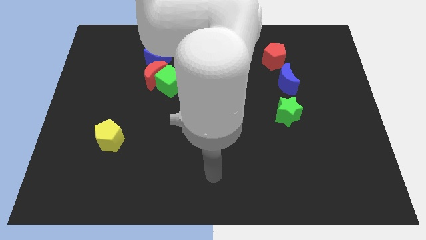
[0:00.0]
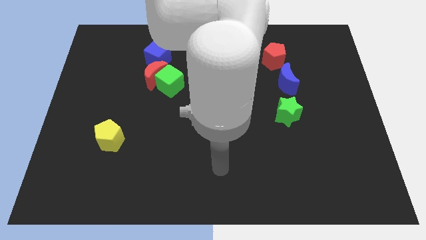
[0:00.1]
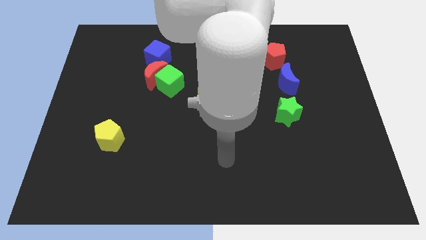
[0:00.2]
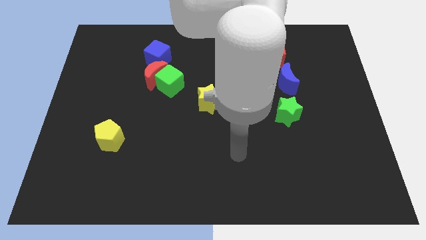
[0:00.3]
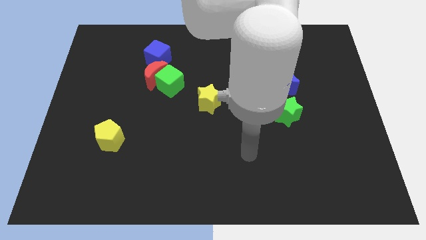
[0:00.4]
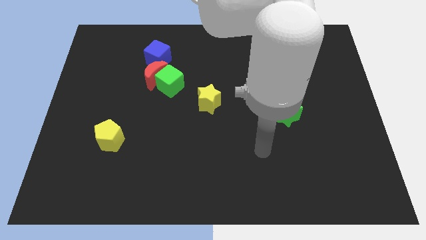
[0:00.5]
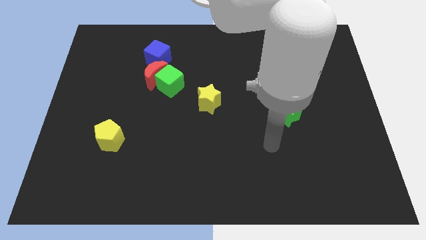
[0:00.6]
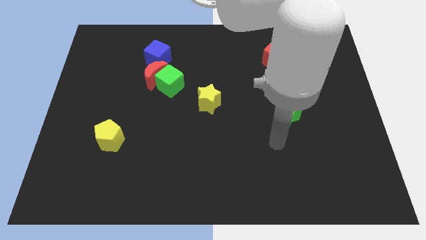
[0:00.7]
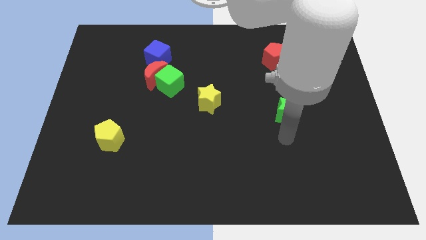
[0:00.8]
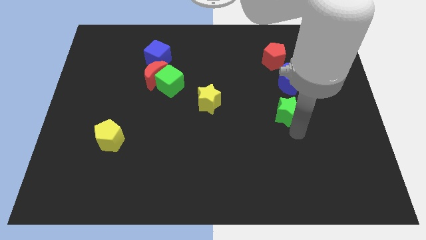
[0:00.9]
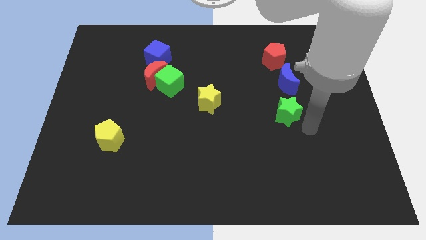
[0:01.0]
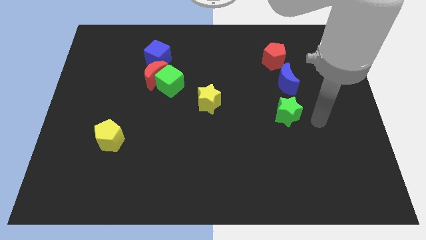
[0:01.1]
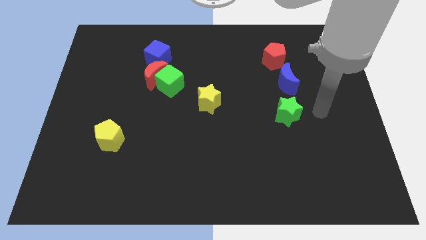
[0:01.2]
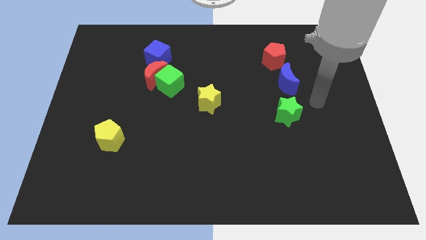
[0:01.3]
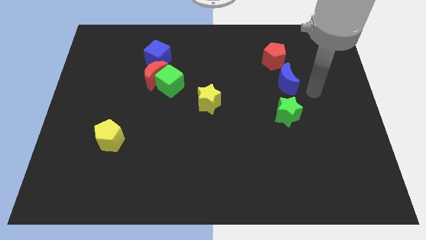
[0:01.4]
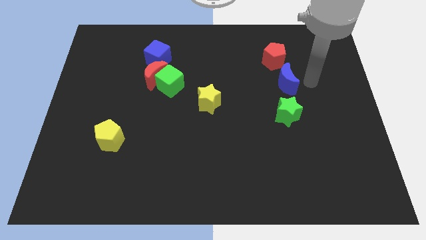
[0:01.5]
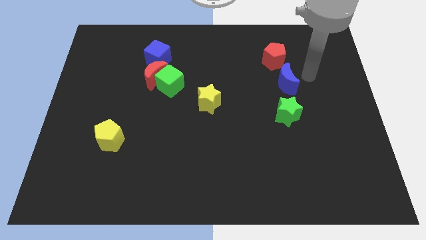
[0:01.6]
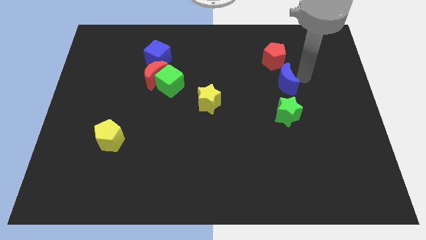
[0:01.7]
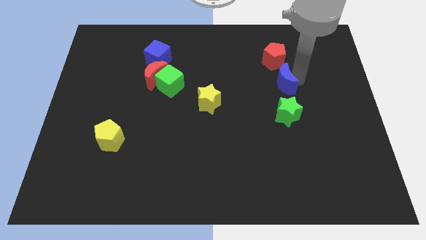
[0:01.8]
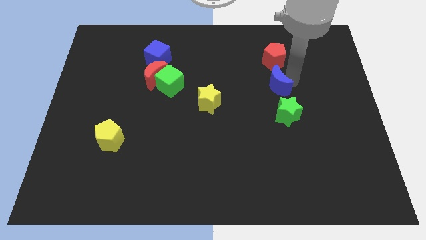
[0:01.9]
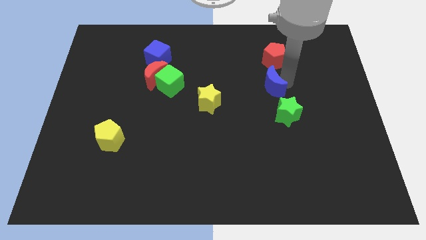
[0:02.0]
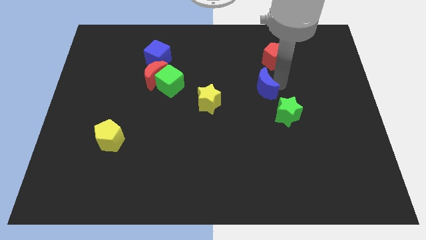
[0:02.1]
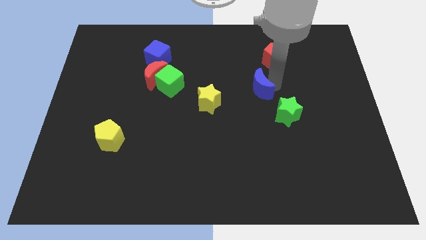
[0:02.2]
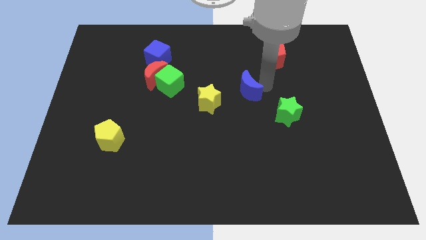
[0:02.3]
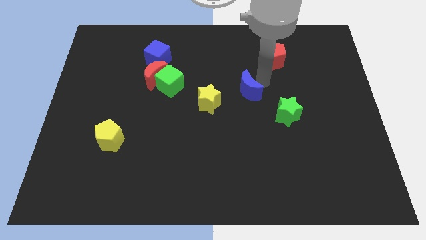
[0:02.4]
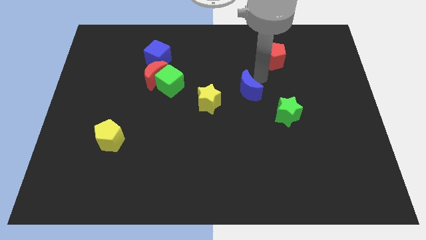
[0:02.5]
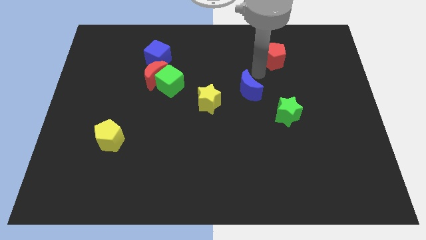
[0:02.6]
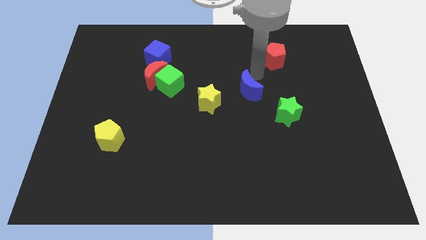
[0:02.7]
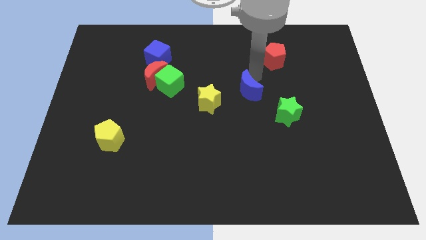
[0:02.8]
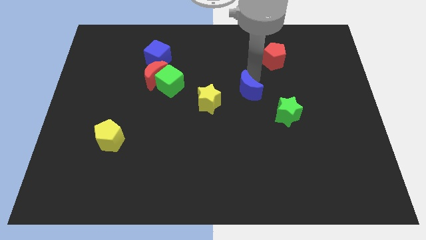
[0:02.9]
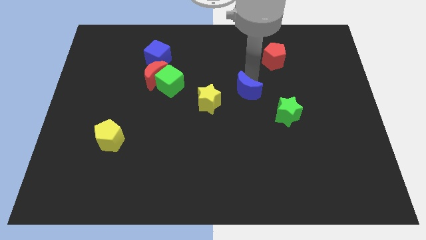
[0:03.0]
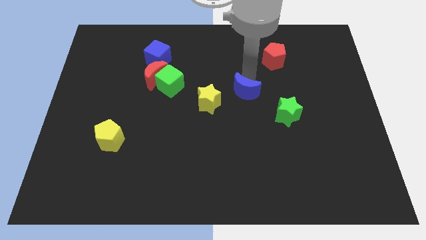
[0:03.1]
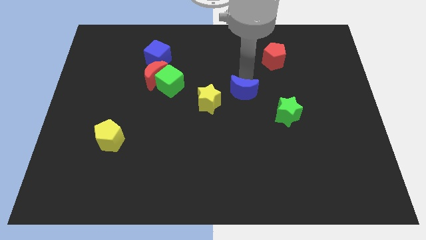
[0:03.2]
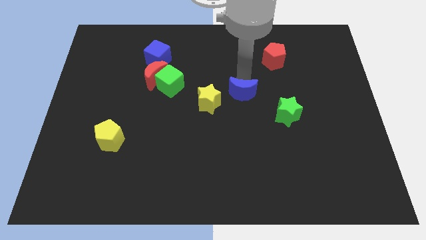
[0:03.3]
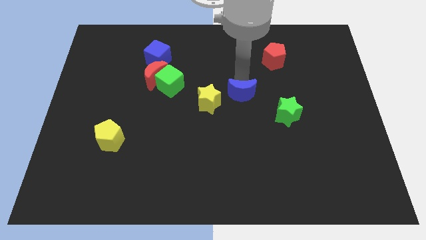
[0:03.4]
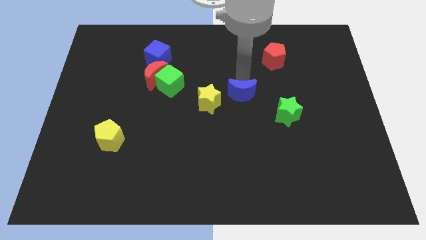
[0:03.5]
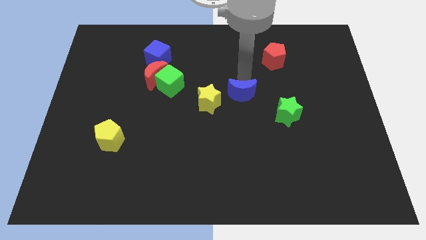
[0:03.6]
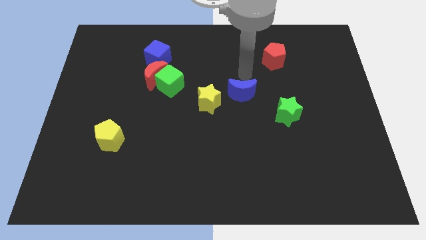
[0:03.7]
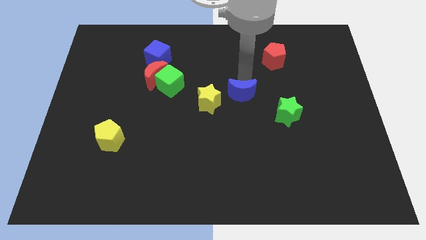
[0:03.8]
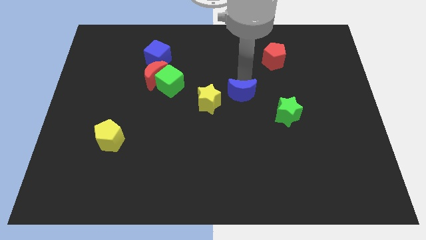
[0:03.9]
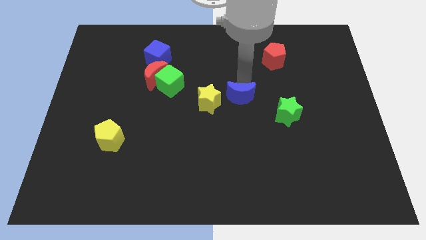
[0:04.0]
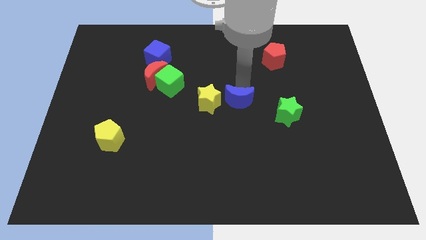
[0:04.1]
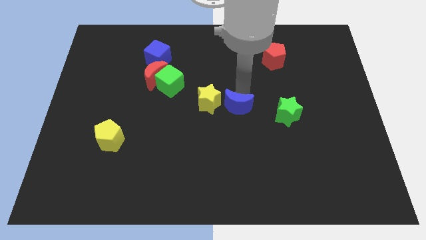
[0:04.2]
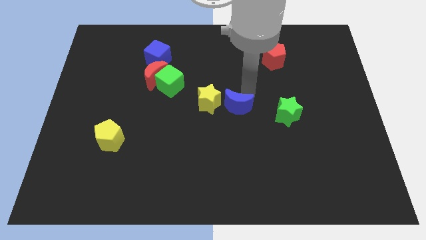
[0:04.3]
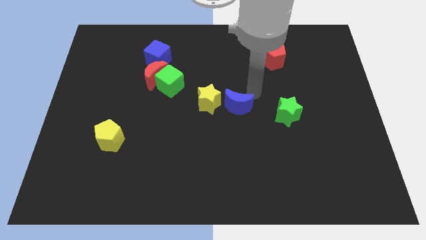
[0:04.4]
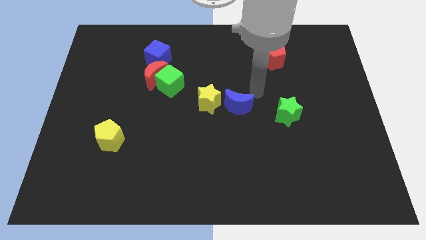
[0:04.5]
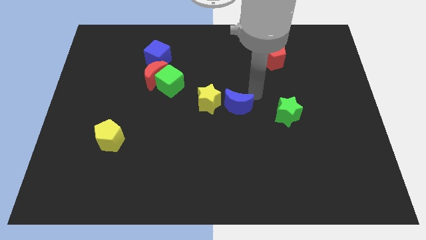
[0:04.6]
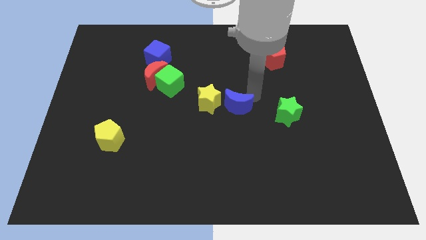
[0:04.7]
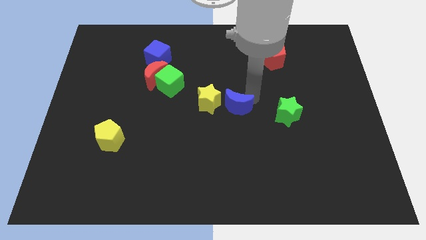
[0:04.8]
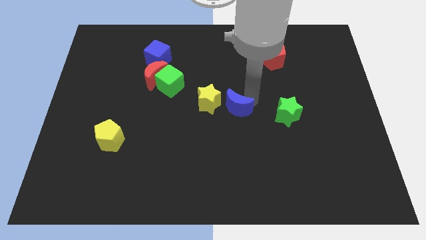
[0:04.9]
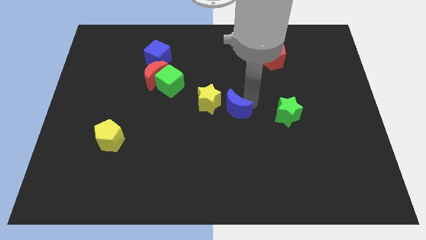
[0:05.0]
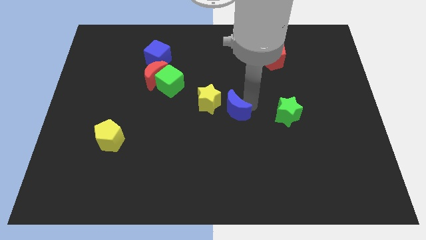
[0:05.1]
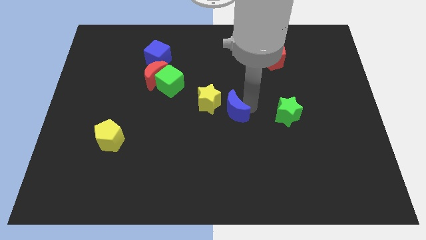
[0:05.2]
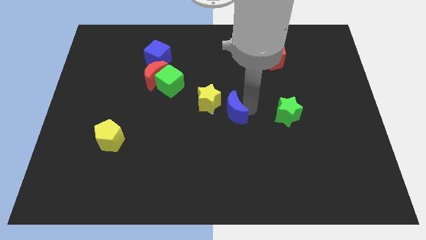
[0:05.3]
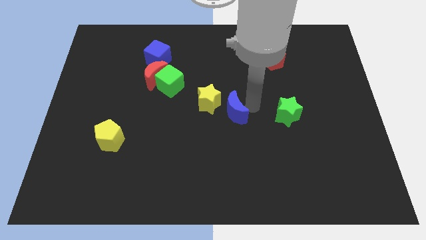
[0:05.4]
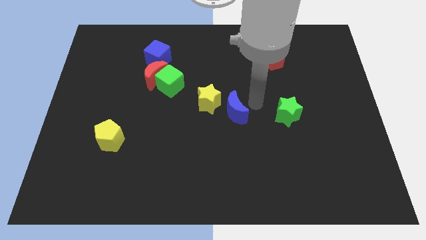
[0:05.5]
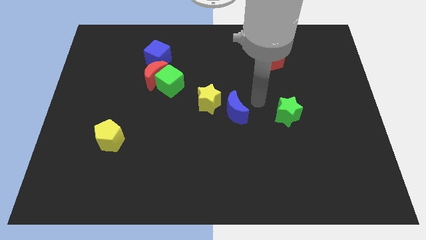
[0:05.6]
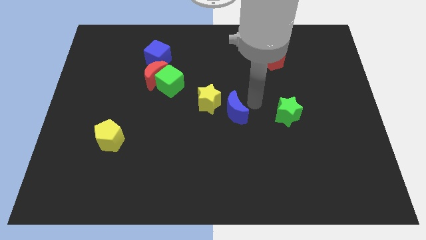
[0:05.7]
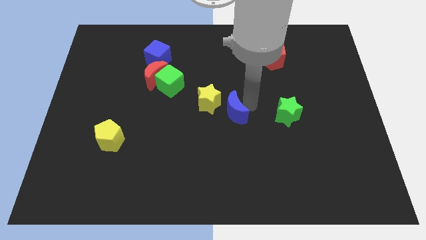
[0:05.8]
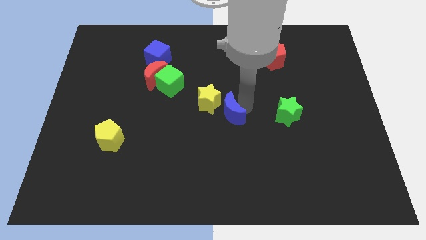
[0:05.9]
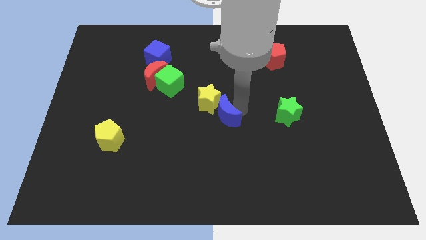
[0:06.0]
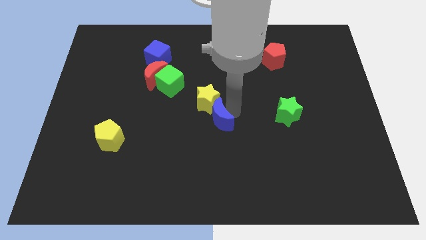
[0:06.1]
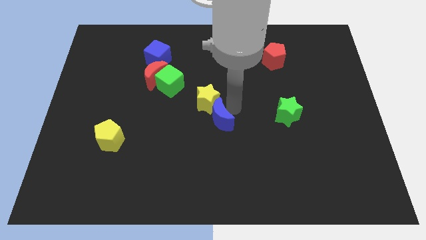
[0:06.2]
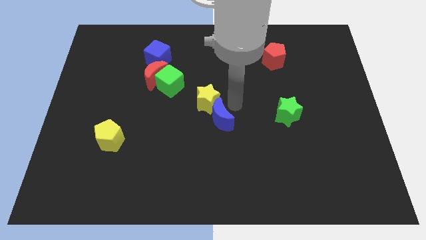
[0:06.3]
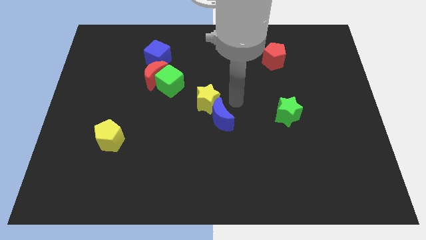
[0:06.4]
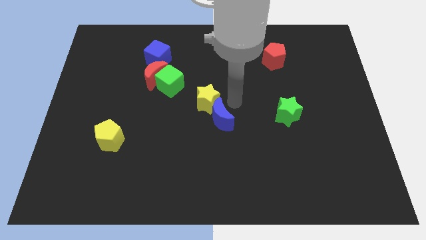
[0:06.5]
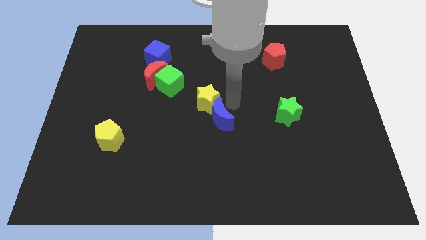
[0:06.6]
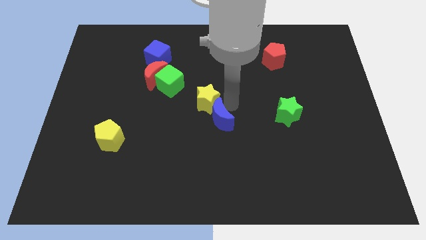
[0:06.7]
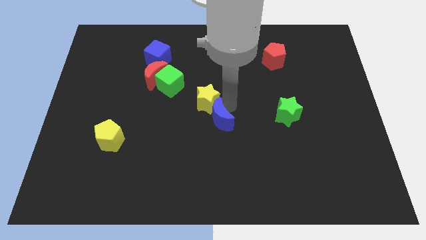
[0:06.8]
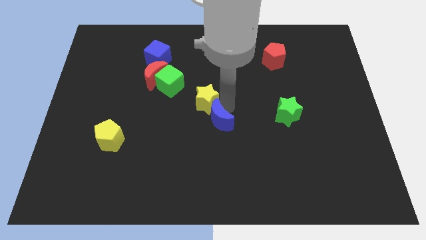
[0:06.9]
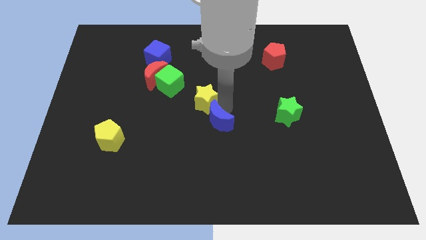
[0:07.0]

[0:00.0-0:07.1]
move the blue moon diagonally downwards and left

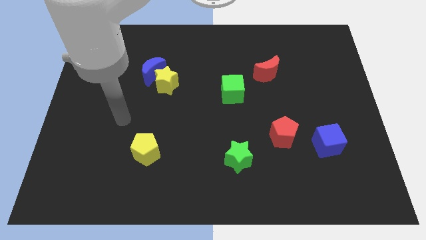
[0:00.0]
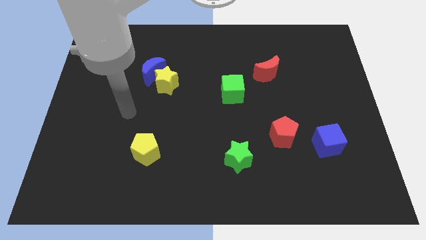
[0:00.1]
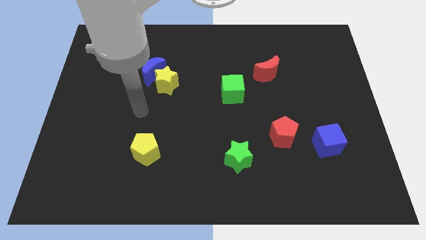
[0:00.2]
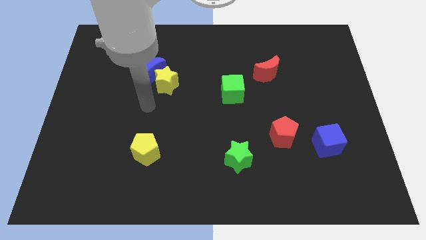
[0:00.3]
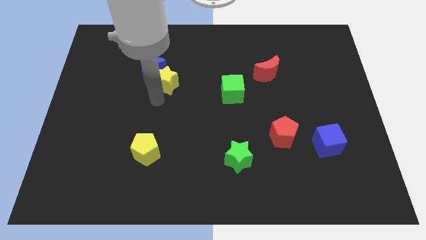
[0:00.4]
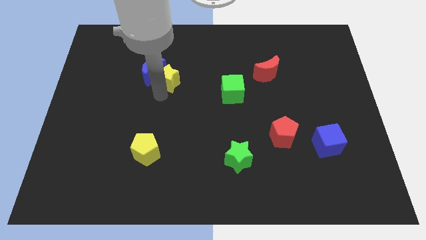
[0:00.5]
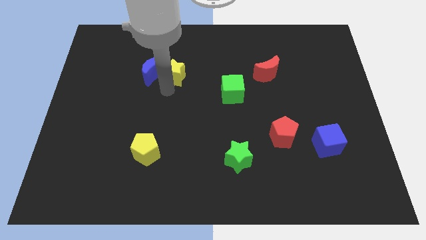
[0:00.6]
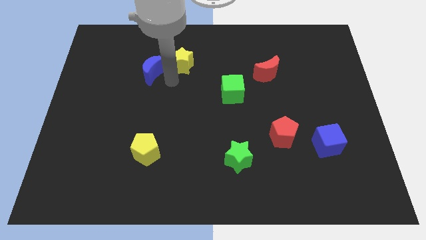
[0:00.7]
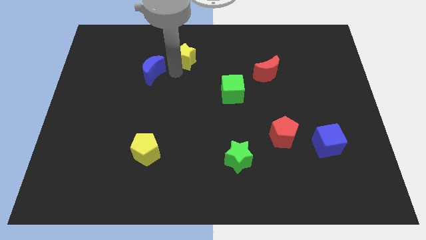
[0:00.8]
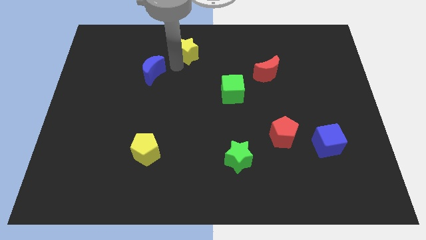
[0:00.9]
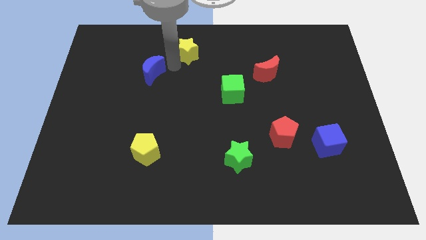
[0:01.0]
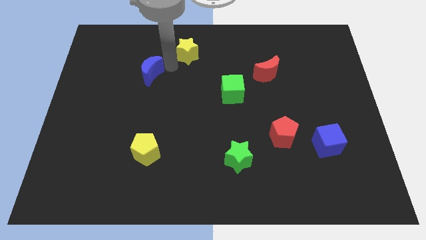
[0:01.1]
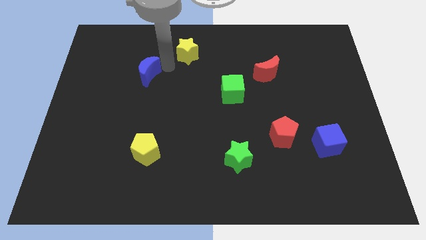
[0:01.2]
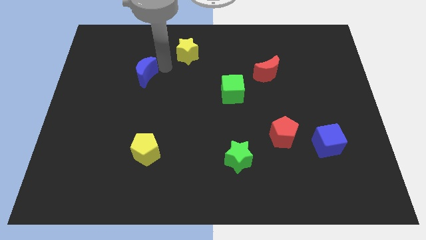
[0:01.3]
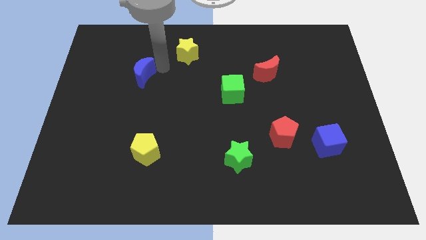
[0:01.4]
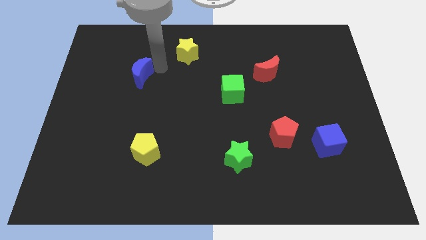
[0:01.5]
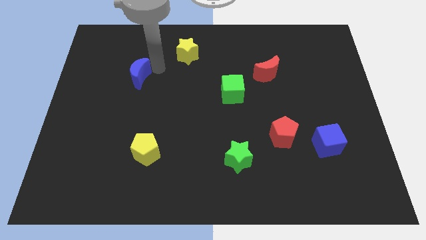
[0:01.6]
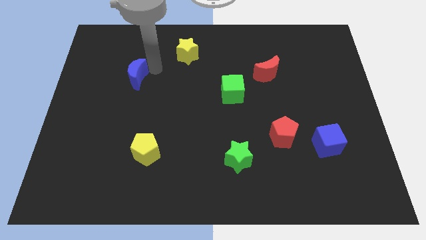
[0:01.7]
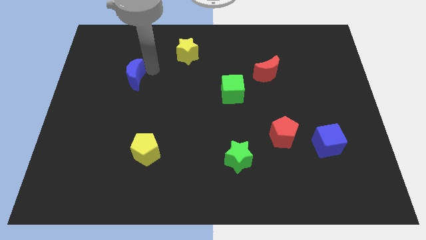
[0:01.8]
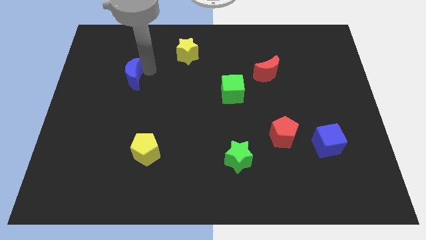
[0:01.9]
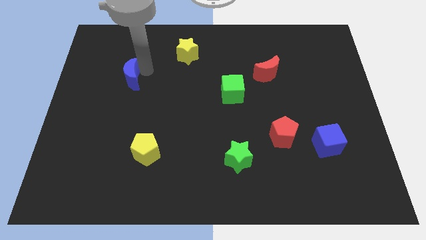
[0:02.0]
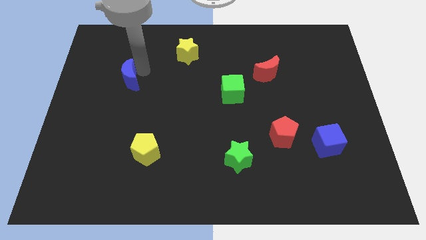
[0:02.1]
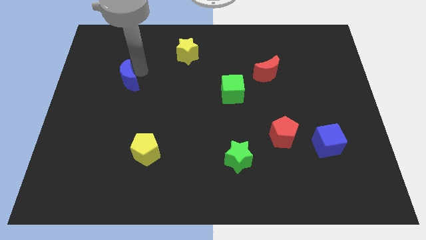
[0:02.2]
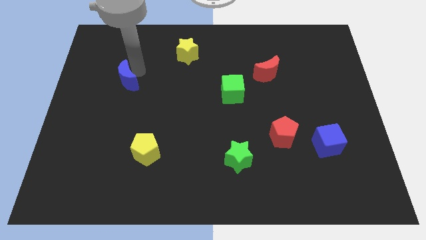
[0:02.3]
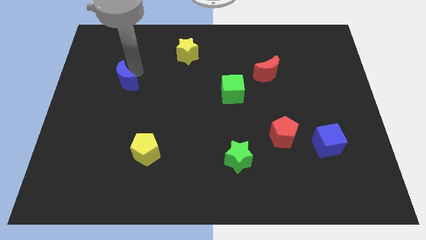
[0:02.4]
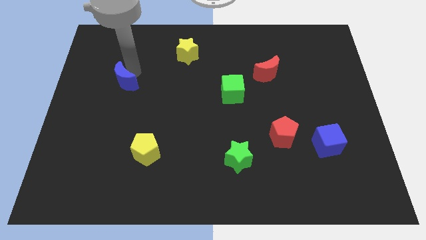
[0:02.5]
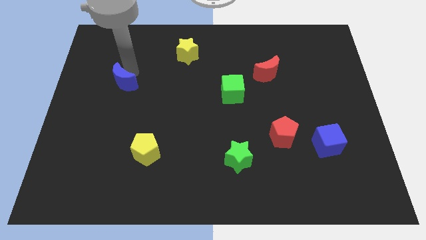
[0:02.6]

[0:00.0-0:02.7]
slide the blue moon downwards and to the left a bit
